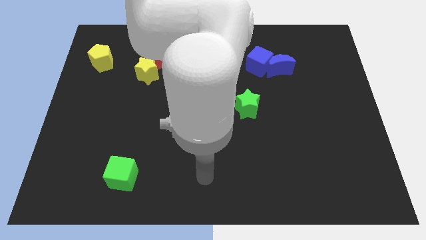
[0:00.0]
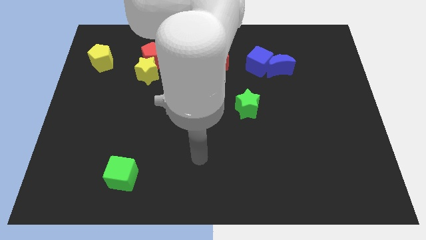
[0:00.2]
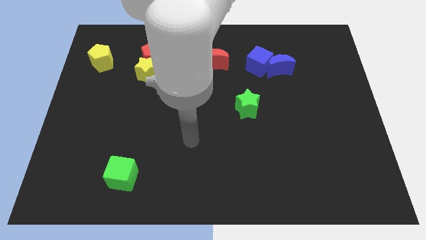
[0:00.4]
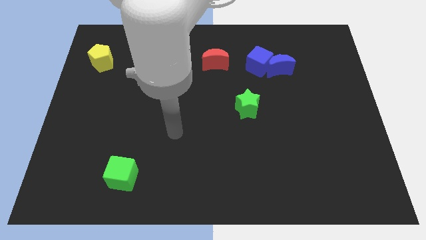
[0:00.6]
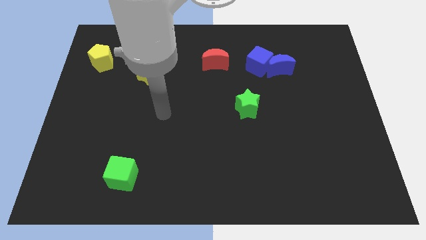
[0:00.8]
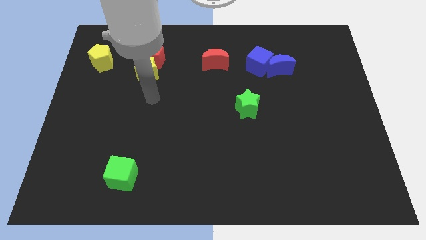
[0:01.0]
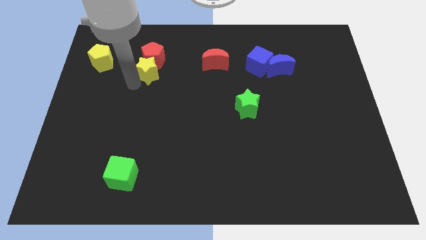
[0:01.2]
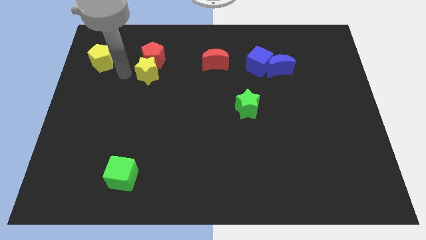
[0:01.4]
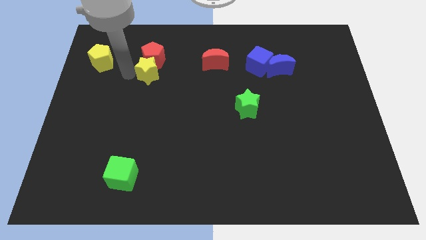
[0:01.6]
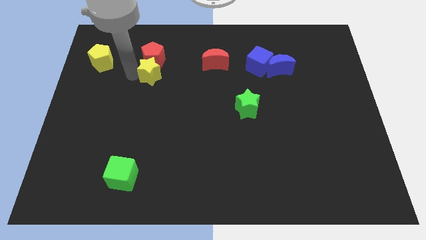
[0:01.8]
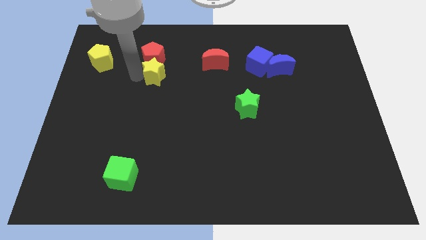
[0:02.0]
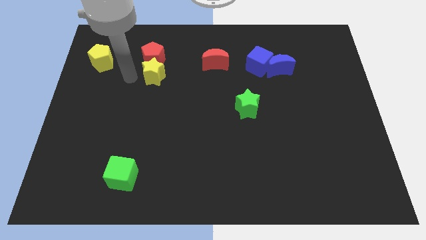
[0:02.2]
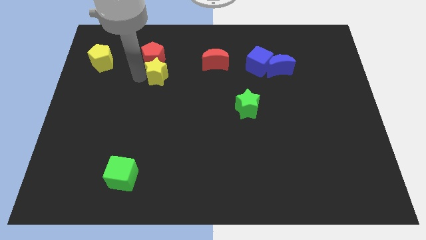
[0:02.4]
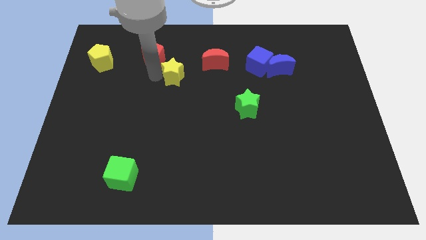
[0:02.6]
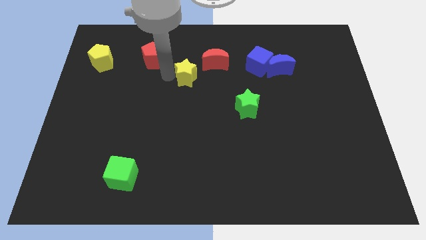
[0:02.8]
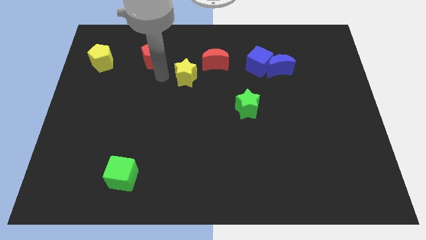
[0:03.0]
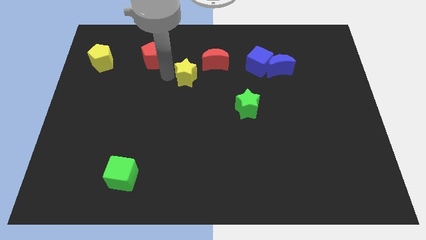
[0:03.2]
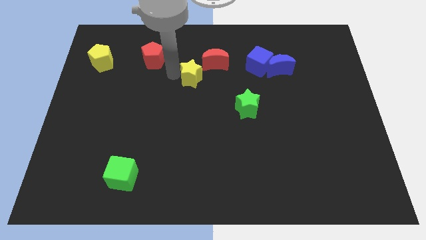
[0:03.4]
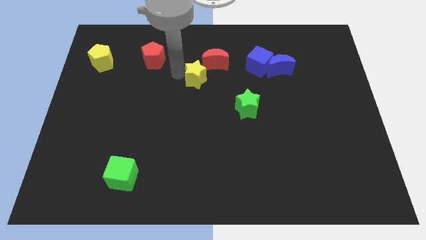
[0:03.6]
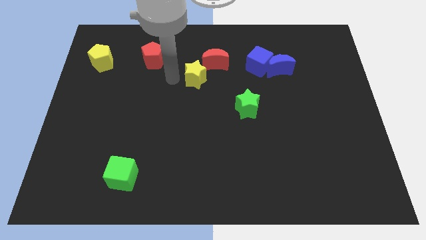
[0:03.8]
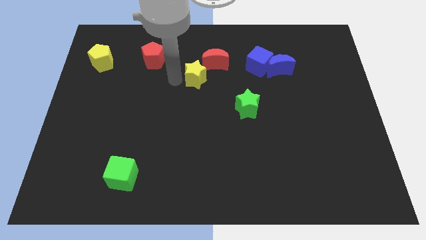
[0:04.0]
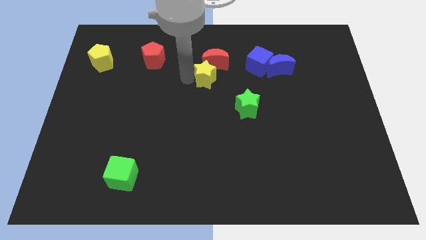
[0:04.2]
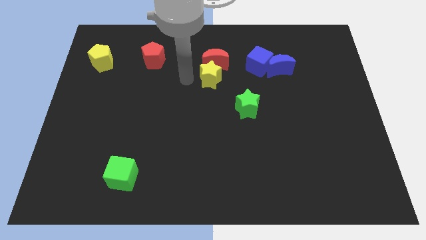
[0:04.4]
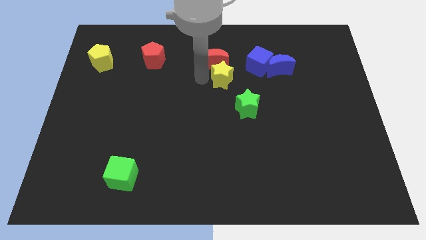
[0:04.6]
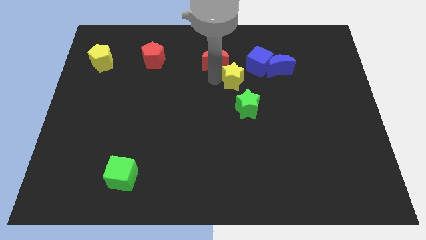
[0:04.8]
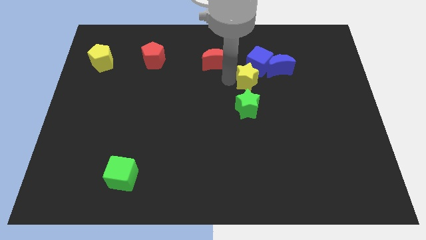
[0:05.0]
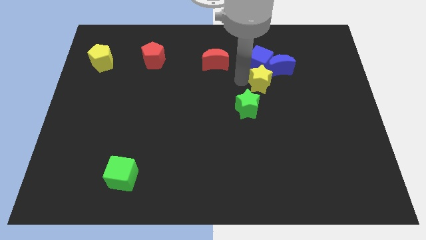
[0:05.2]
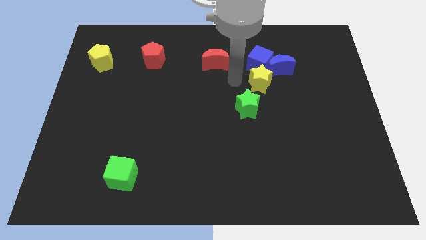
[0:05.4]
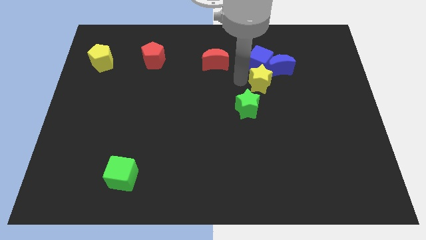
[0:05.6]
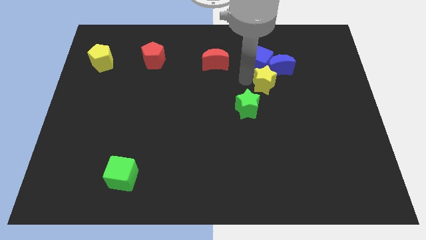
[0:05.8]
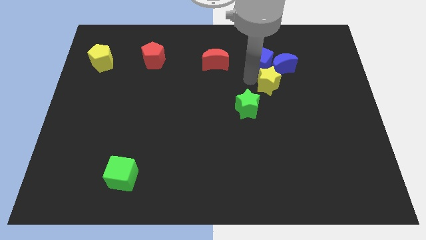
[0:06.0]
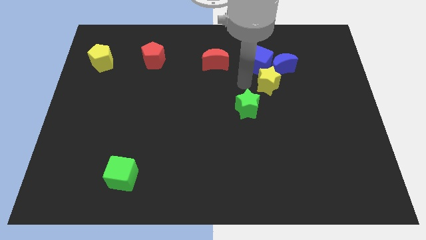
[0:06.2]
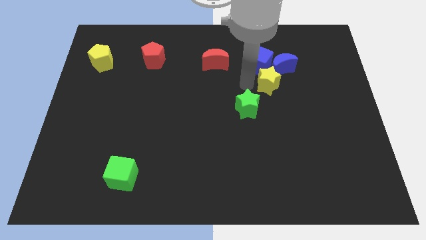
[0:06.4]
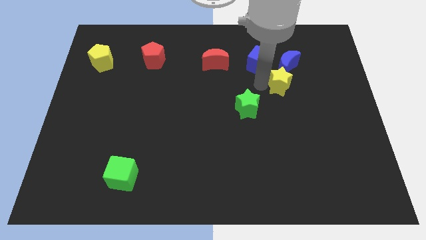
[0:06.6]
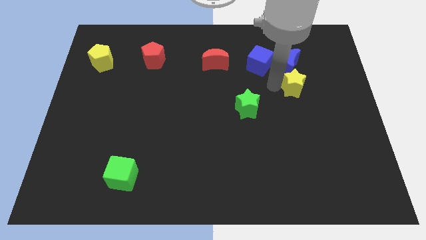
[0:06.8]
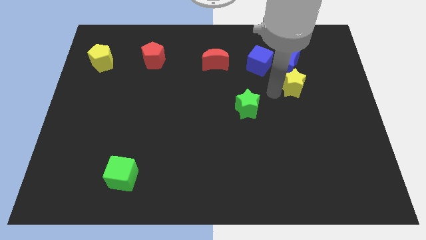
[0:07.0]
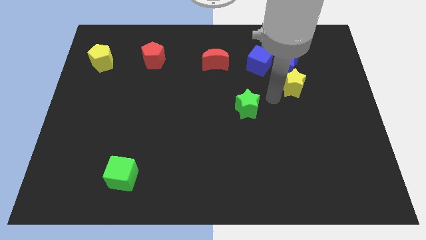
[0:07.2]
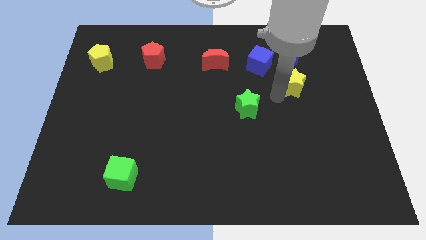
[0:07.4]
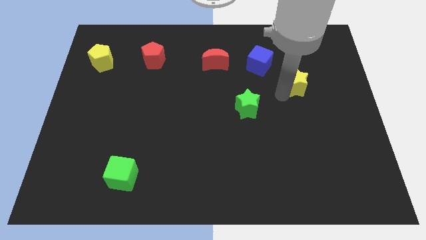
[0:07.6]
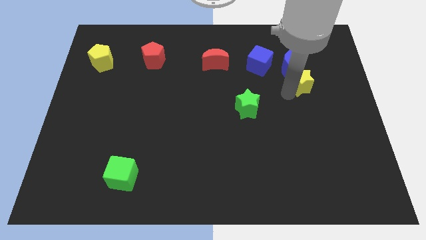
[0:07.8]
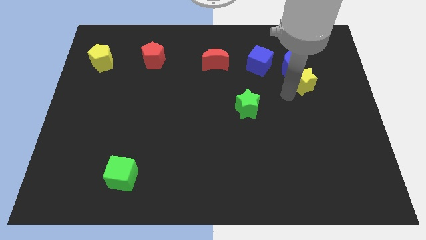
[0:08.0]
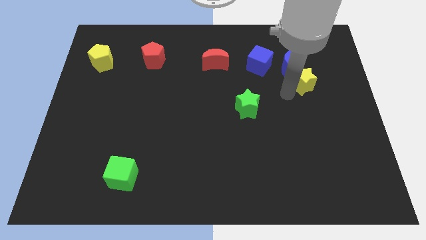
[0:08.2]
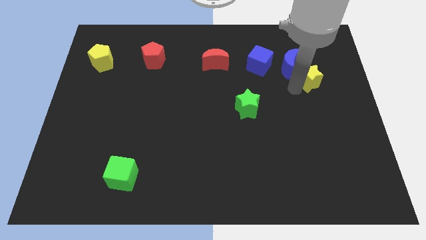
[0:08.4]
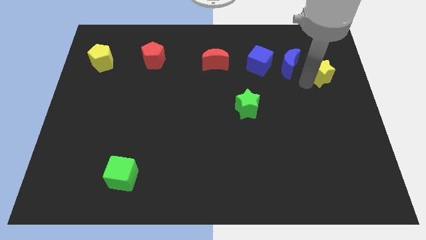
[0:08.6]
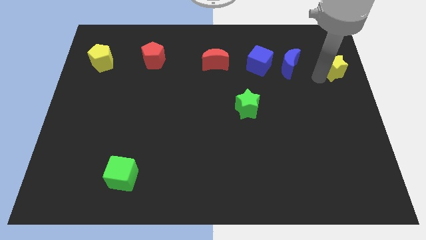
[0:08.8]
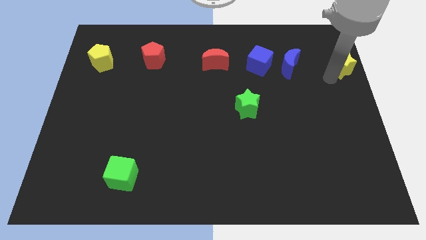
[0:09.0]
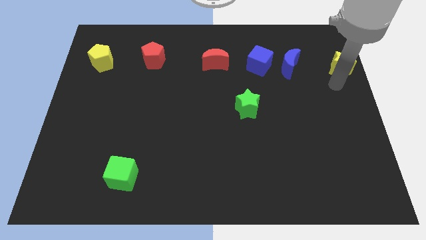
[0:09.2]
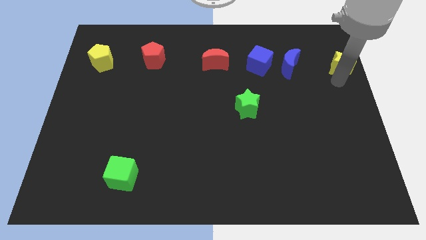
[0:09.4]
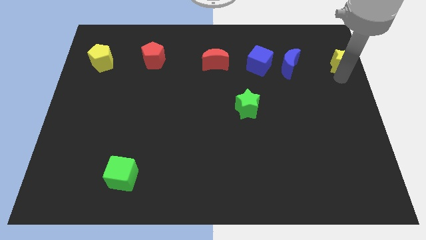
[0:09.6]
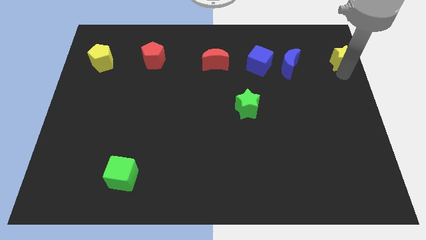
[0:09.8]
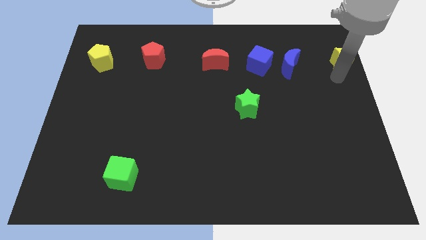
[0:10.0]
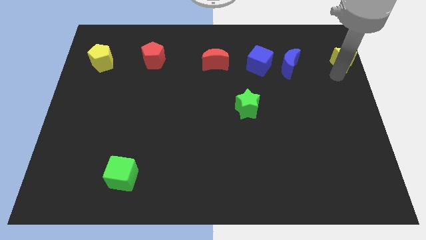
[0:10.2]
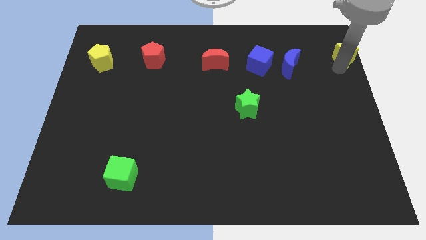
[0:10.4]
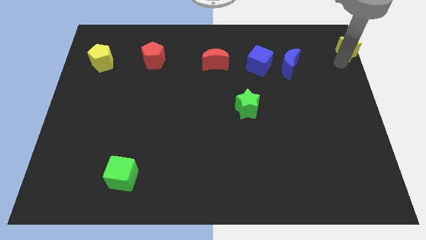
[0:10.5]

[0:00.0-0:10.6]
put the yellow star to the upper right corner

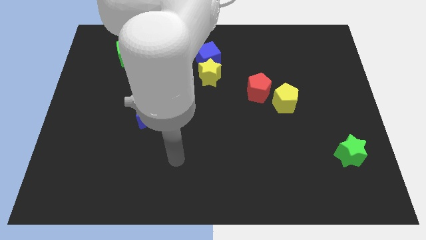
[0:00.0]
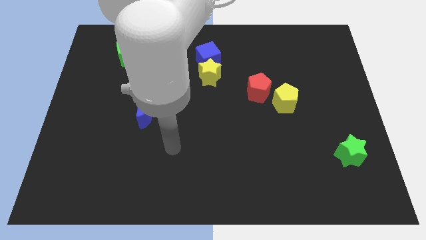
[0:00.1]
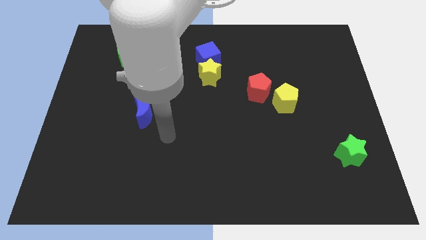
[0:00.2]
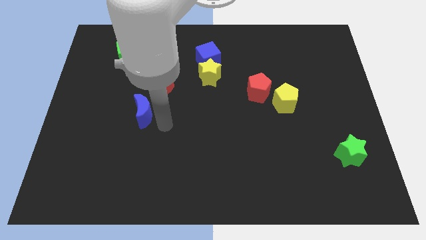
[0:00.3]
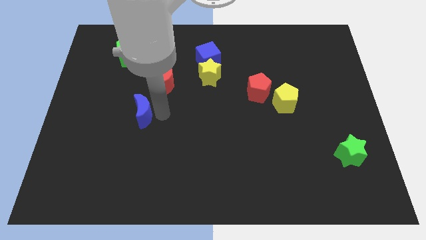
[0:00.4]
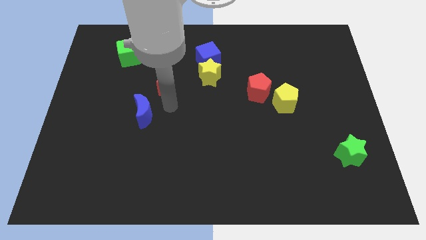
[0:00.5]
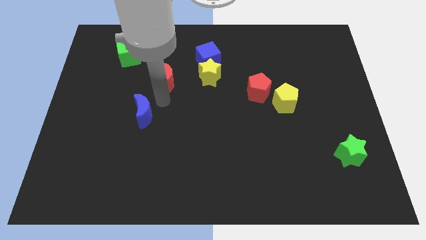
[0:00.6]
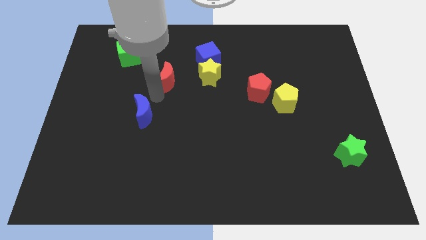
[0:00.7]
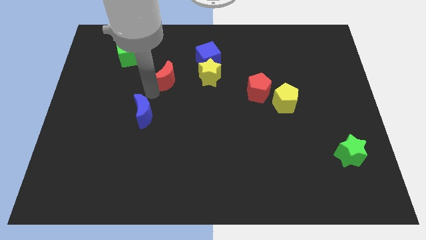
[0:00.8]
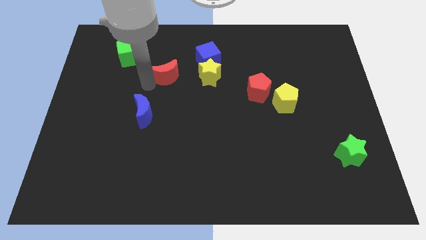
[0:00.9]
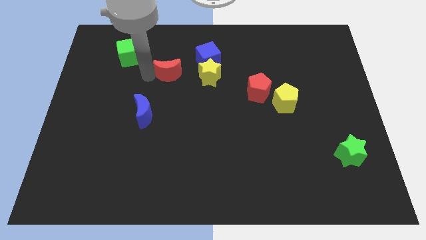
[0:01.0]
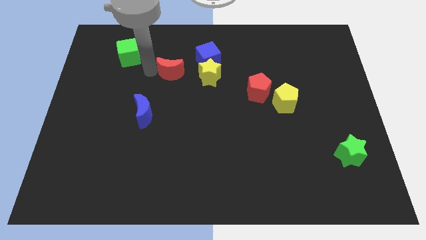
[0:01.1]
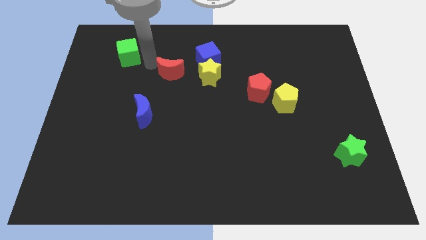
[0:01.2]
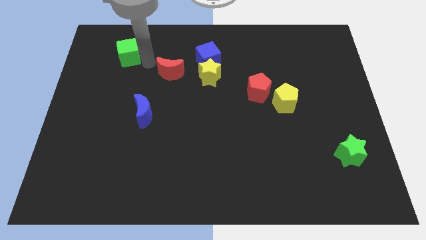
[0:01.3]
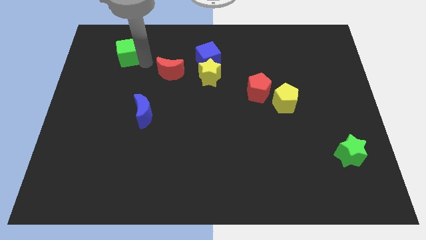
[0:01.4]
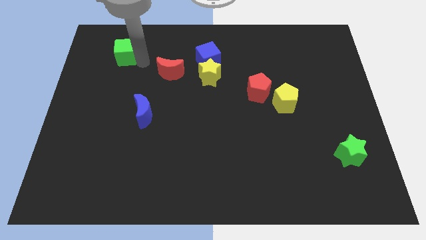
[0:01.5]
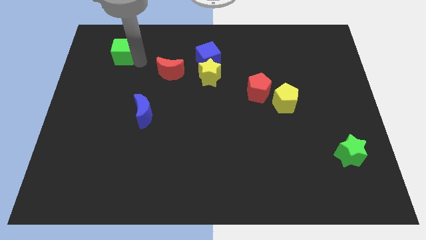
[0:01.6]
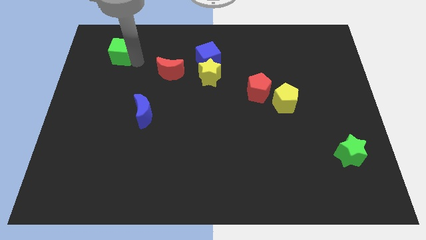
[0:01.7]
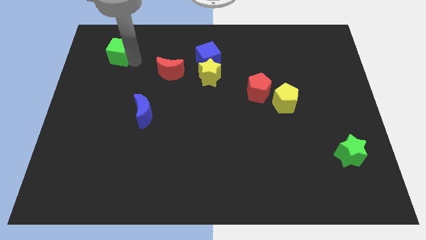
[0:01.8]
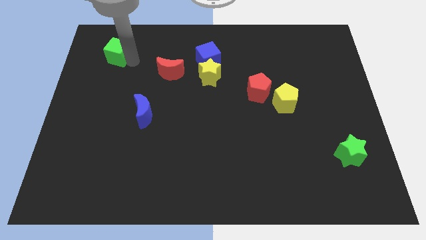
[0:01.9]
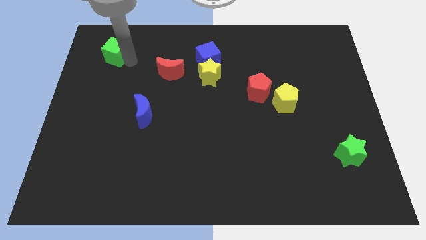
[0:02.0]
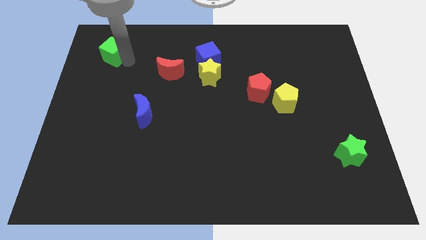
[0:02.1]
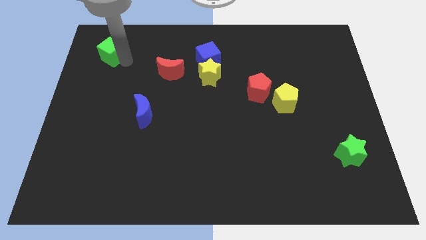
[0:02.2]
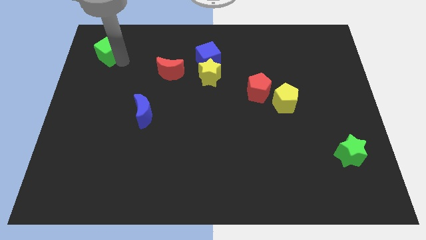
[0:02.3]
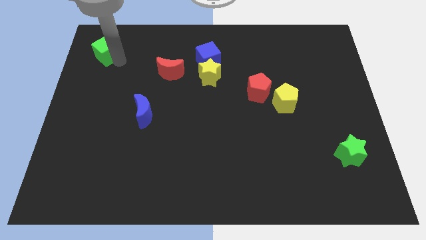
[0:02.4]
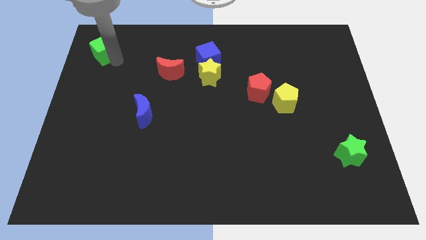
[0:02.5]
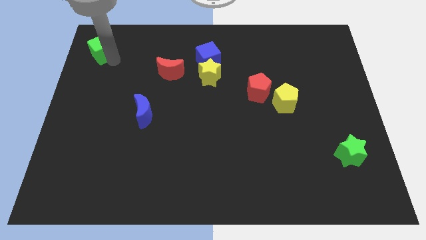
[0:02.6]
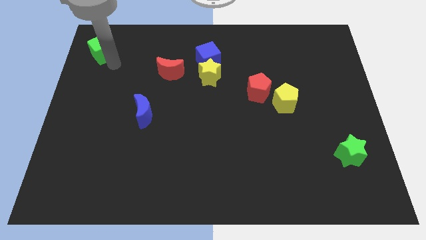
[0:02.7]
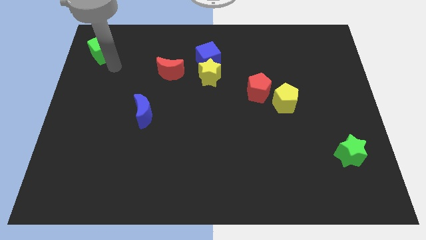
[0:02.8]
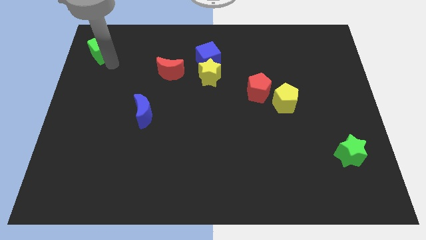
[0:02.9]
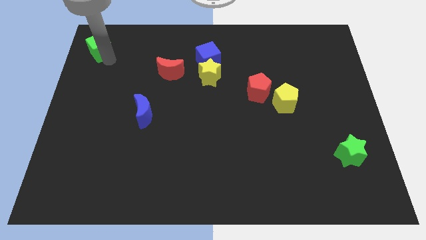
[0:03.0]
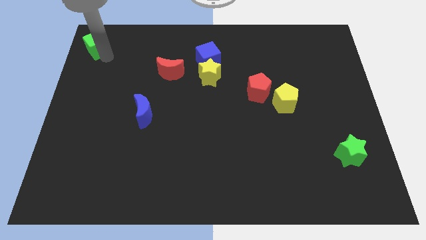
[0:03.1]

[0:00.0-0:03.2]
push the green cube to the upper left corner
